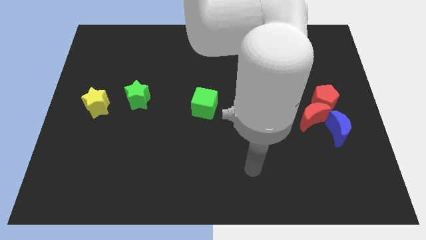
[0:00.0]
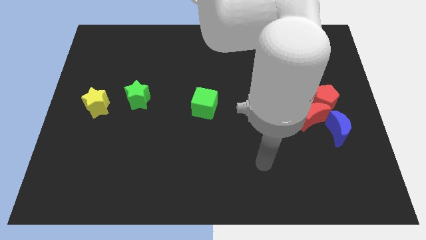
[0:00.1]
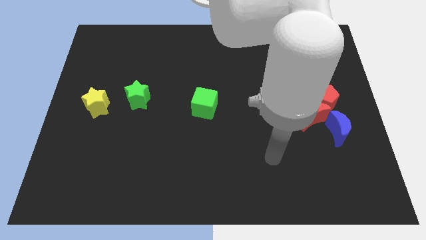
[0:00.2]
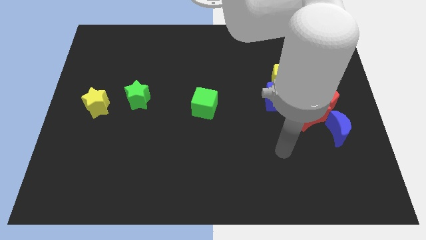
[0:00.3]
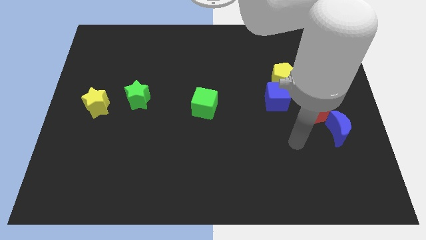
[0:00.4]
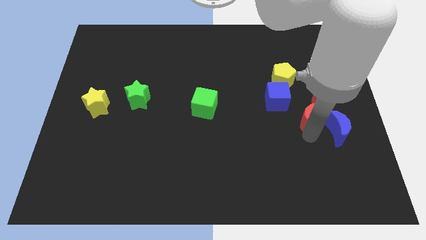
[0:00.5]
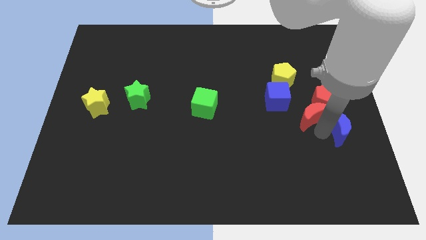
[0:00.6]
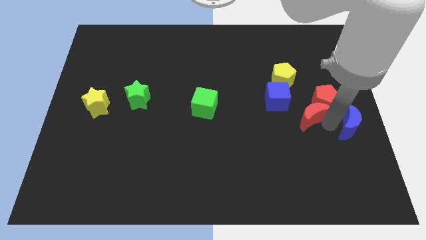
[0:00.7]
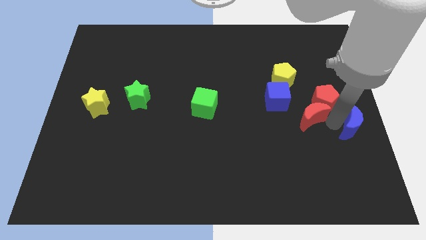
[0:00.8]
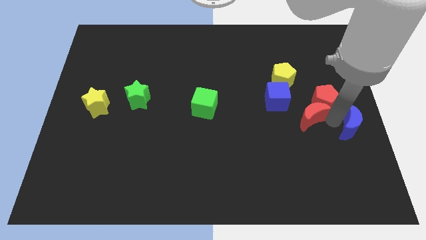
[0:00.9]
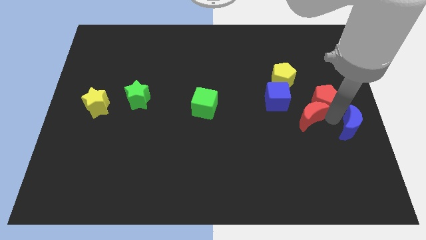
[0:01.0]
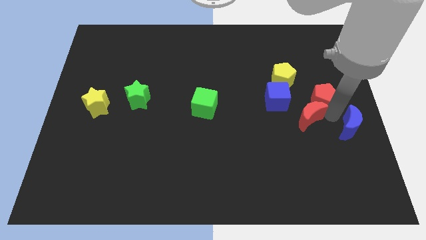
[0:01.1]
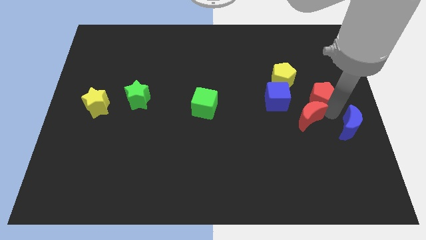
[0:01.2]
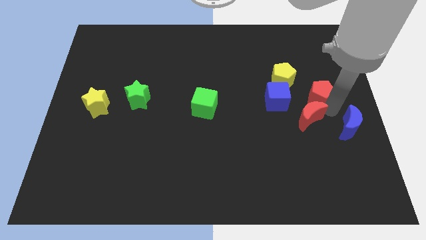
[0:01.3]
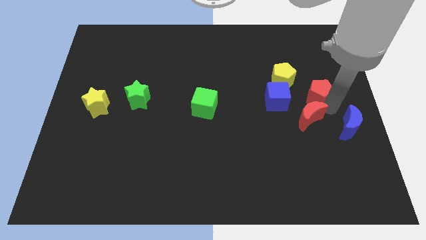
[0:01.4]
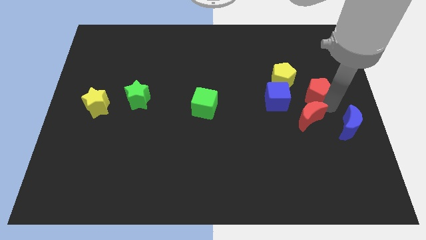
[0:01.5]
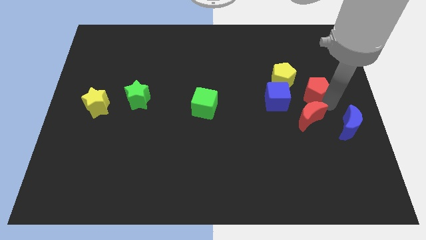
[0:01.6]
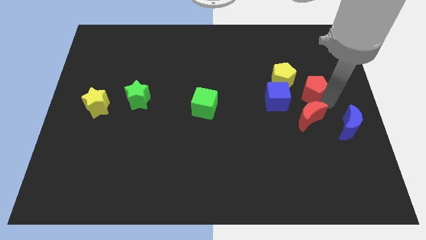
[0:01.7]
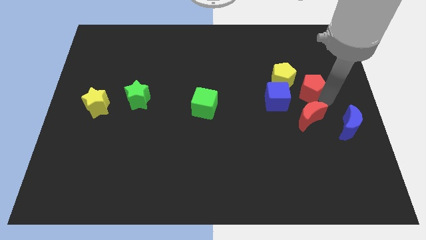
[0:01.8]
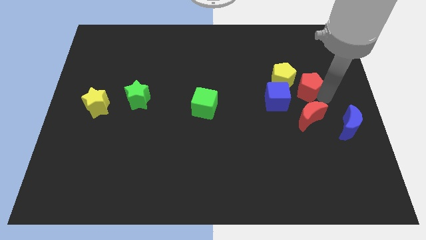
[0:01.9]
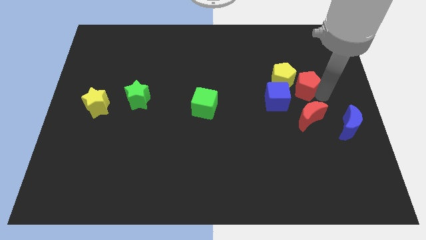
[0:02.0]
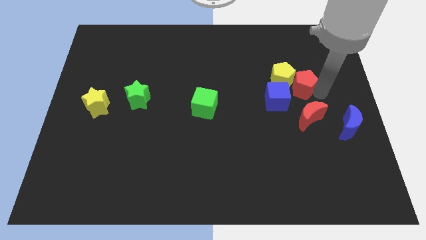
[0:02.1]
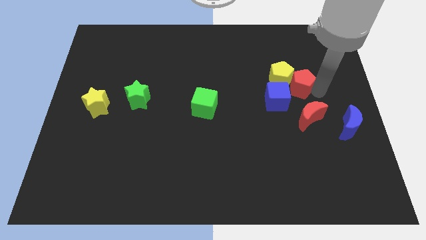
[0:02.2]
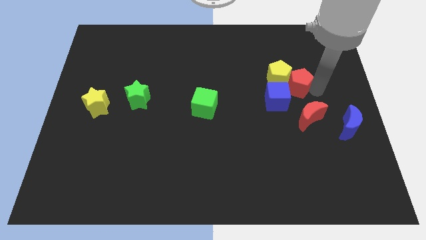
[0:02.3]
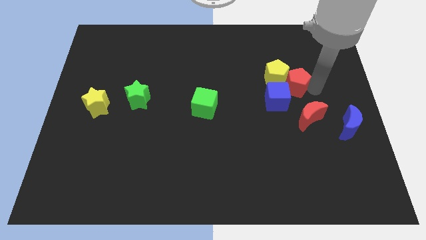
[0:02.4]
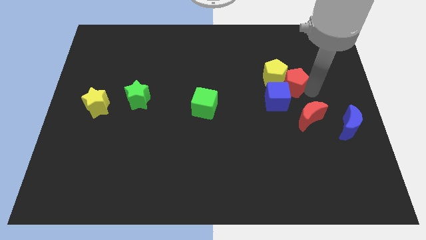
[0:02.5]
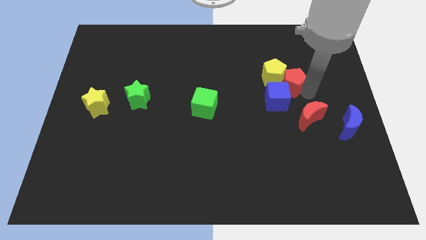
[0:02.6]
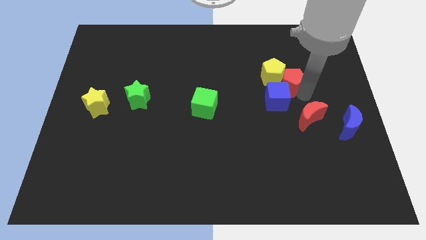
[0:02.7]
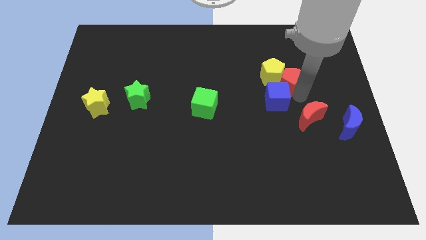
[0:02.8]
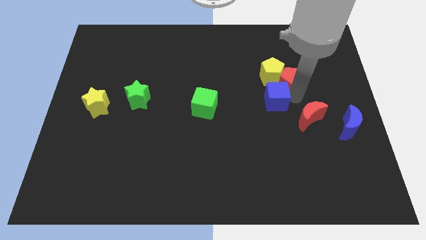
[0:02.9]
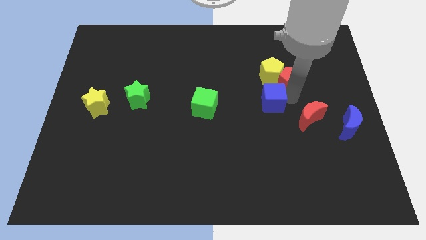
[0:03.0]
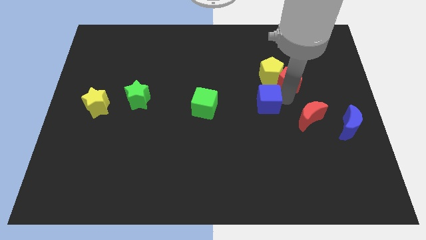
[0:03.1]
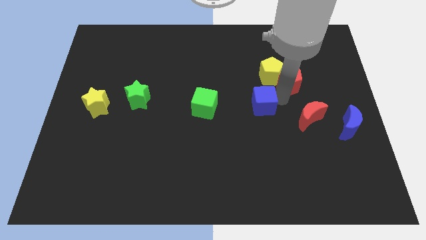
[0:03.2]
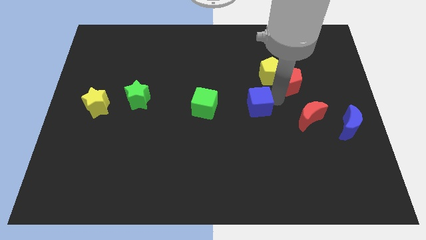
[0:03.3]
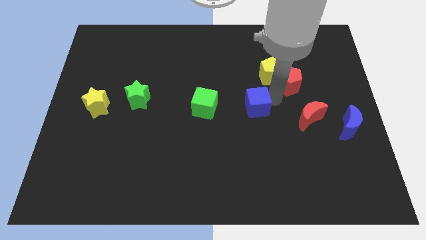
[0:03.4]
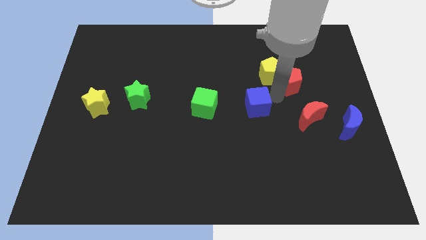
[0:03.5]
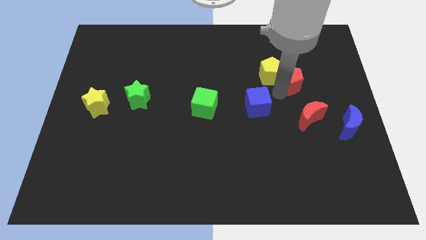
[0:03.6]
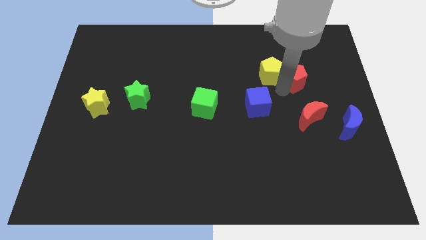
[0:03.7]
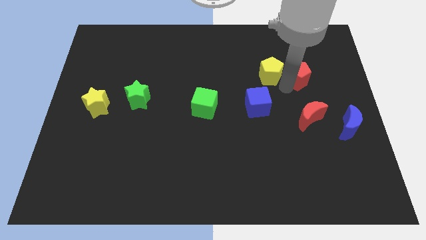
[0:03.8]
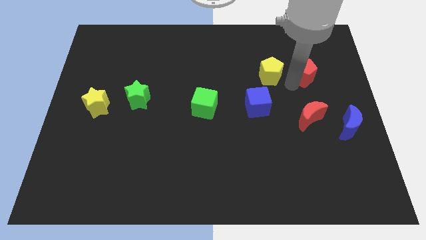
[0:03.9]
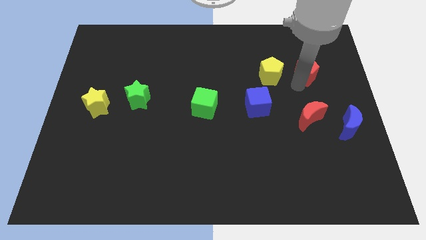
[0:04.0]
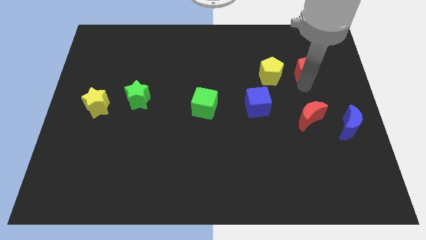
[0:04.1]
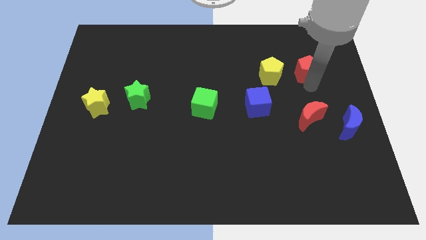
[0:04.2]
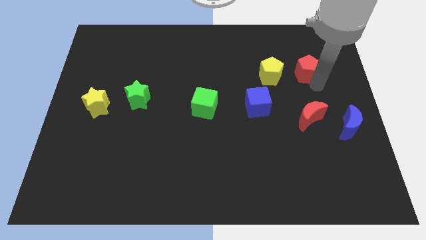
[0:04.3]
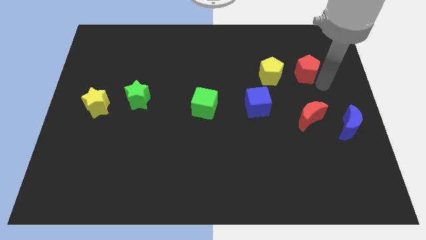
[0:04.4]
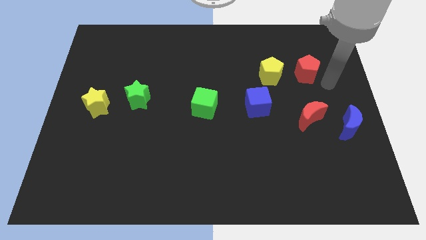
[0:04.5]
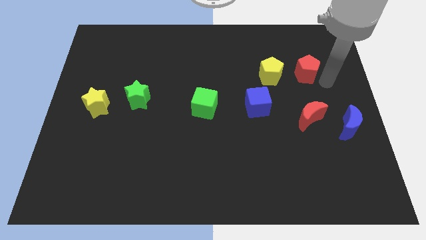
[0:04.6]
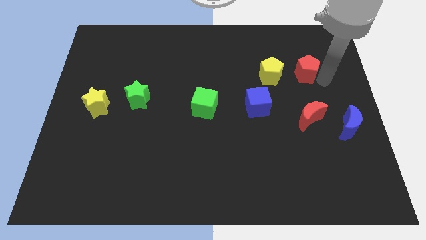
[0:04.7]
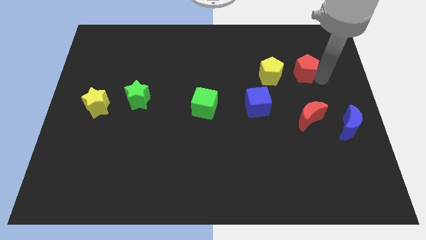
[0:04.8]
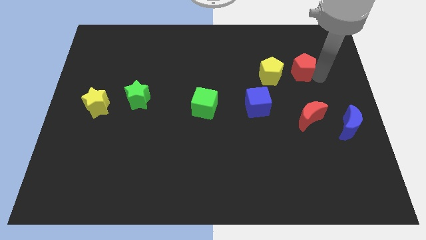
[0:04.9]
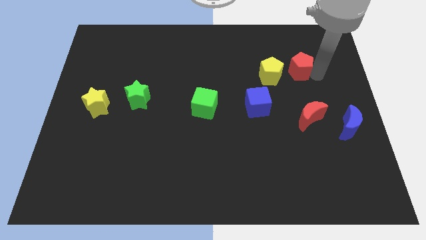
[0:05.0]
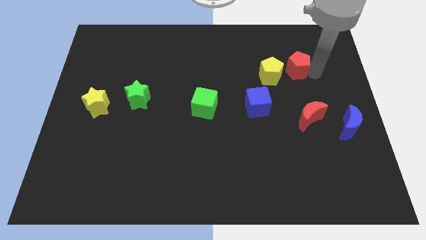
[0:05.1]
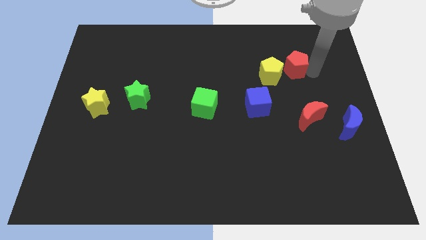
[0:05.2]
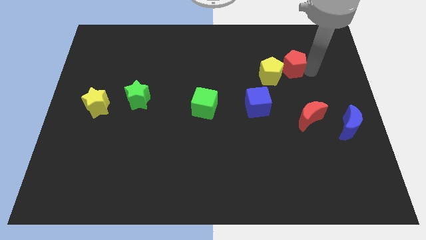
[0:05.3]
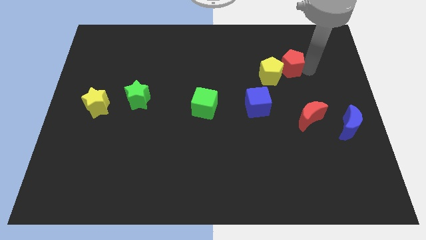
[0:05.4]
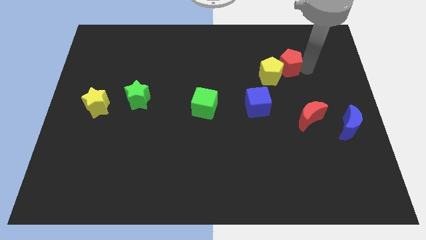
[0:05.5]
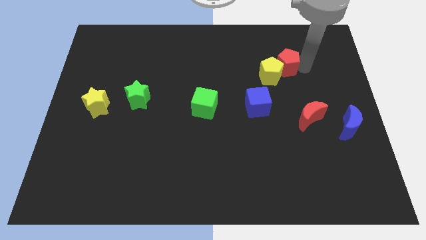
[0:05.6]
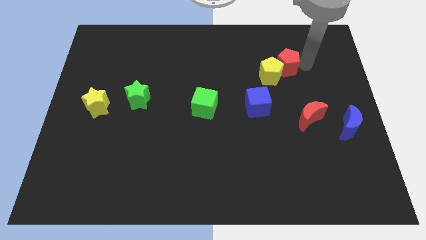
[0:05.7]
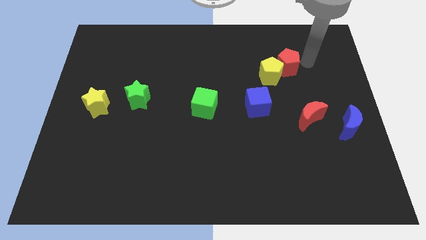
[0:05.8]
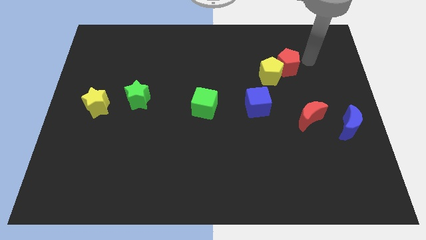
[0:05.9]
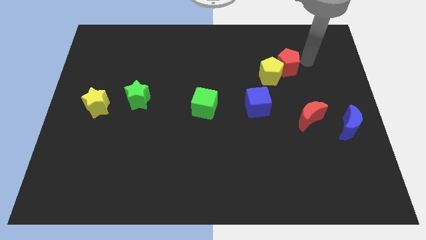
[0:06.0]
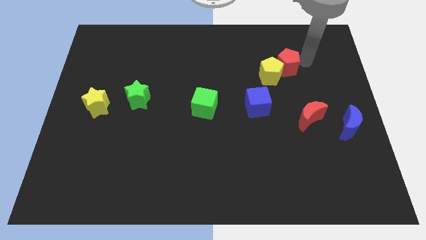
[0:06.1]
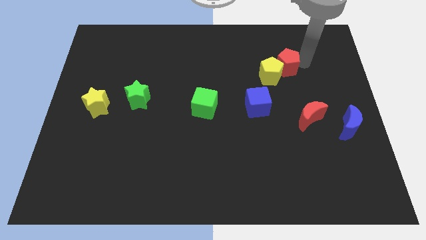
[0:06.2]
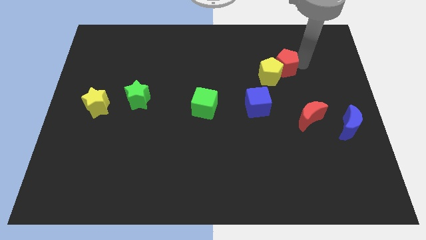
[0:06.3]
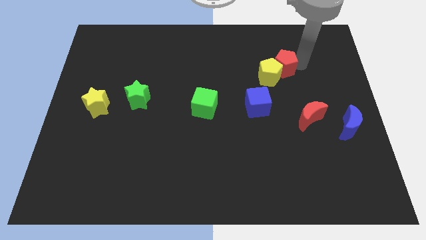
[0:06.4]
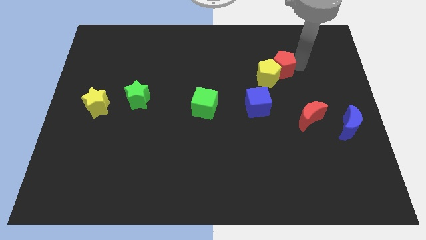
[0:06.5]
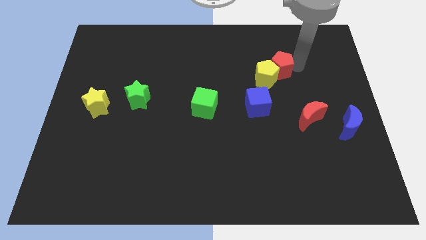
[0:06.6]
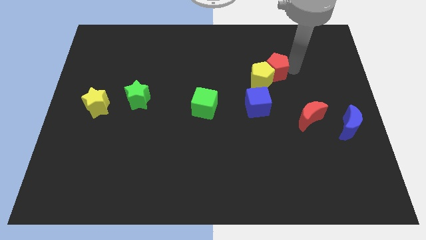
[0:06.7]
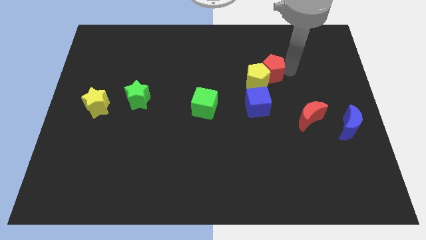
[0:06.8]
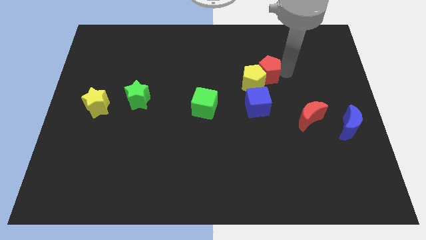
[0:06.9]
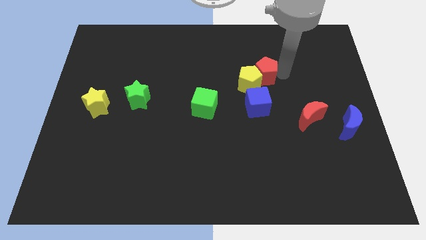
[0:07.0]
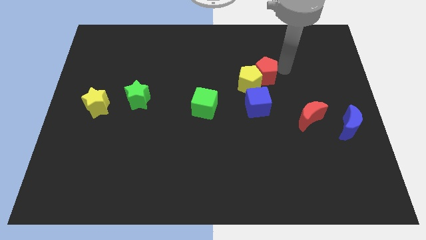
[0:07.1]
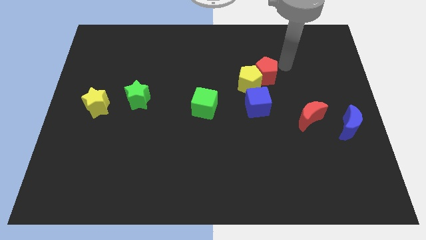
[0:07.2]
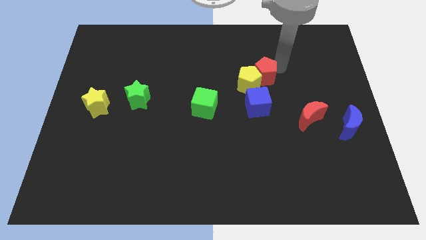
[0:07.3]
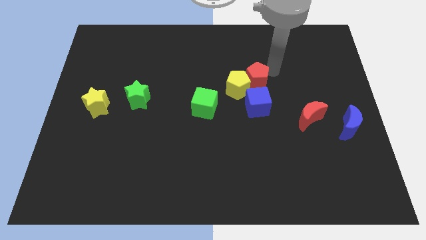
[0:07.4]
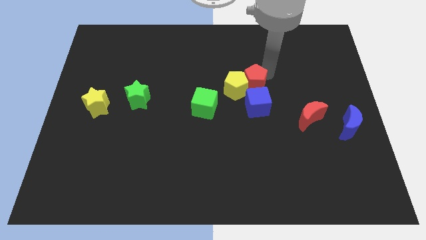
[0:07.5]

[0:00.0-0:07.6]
push the red pentagon to the top left side of the blue cube
